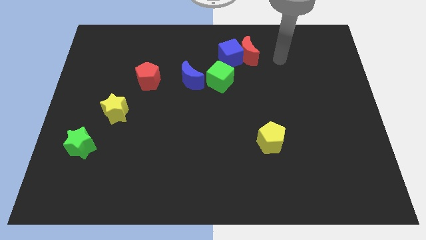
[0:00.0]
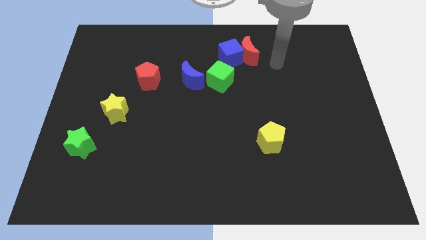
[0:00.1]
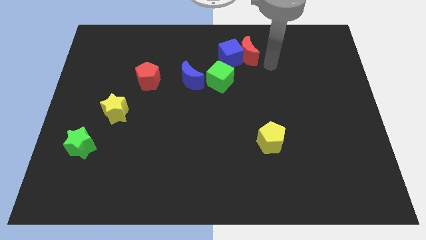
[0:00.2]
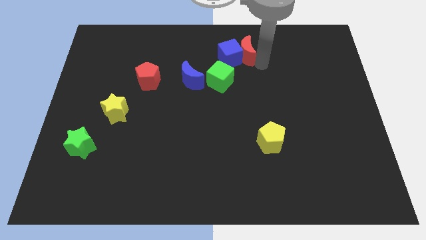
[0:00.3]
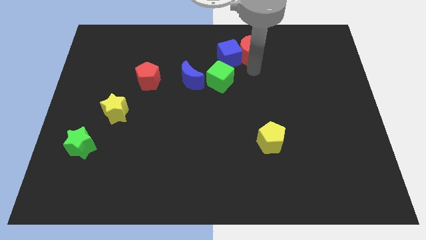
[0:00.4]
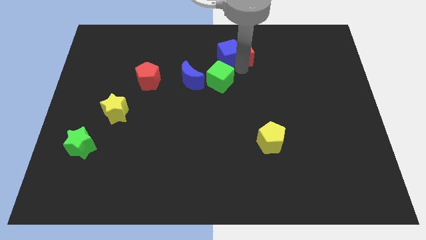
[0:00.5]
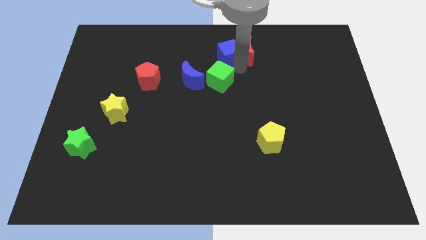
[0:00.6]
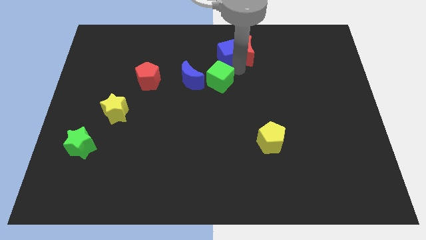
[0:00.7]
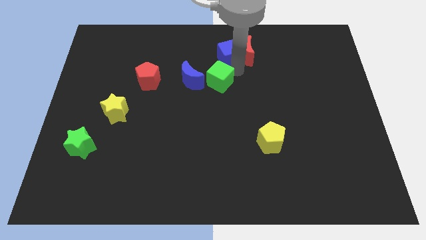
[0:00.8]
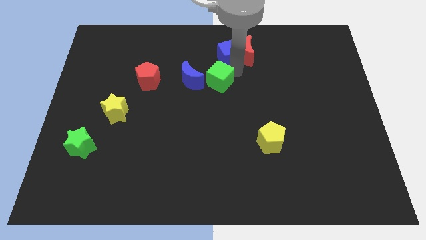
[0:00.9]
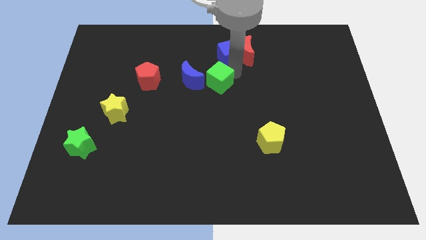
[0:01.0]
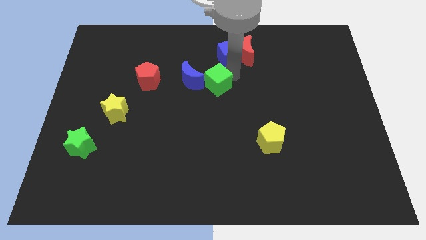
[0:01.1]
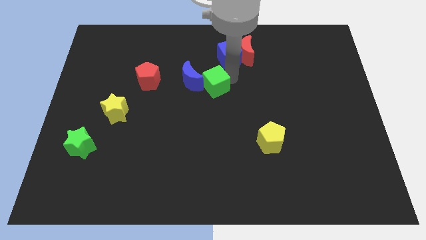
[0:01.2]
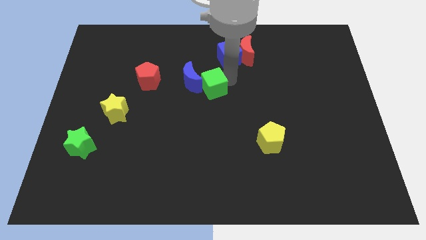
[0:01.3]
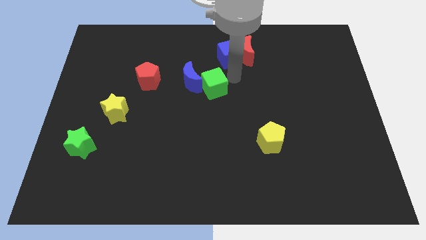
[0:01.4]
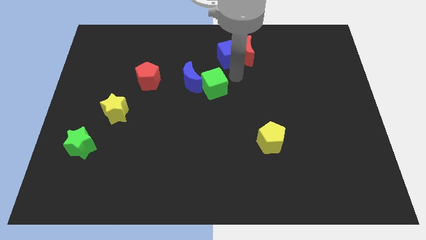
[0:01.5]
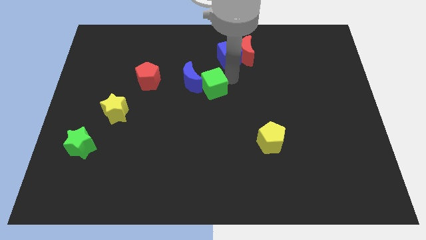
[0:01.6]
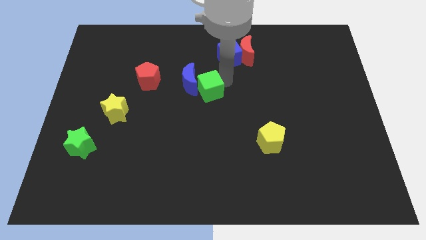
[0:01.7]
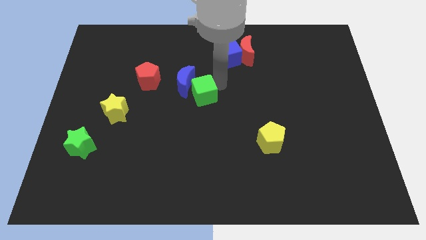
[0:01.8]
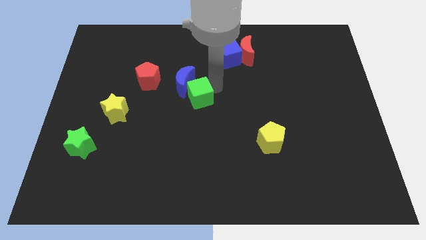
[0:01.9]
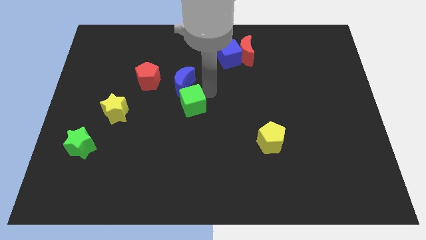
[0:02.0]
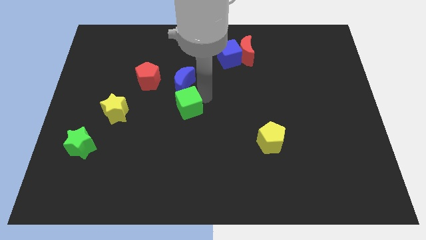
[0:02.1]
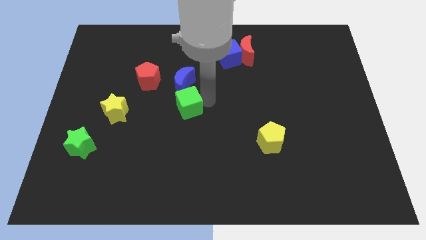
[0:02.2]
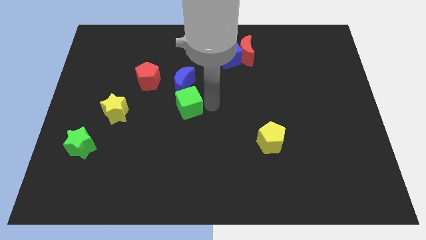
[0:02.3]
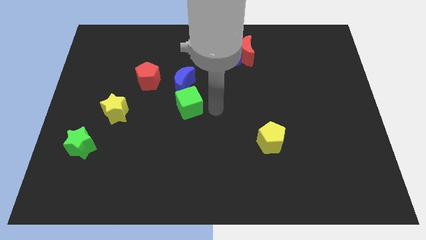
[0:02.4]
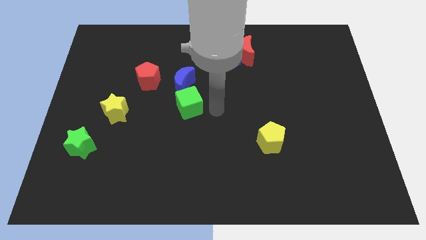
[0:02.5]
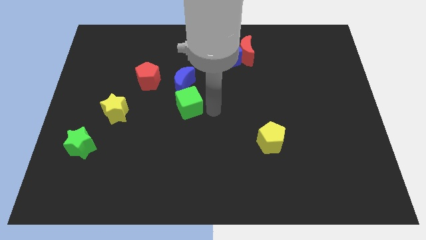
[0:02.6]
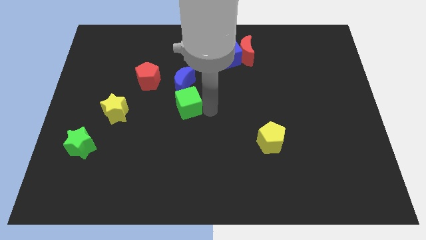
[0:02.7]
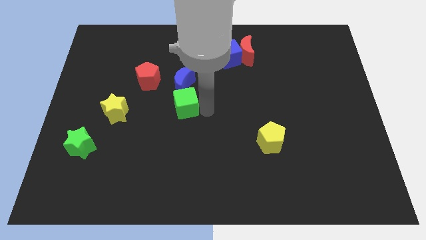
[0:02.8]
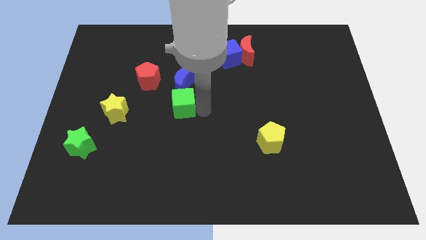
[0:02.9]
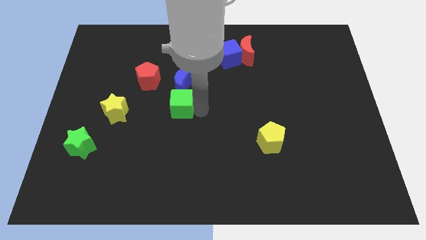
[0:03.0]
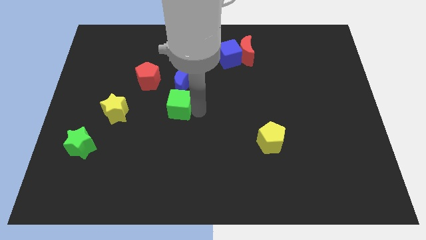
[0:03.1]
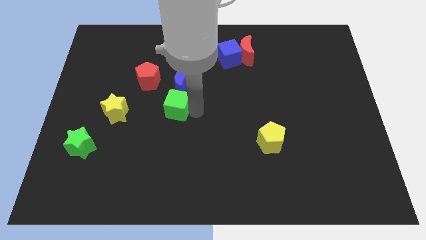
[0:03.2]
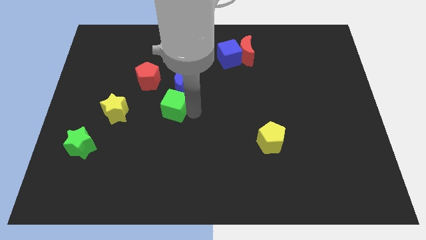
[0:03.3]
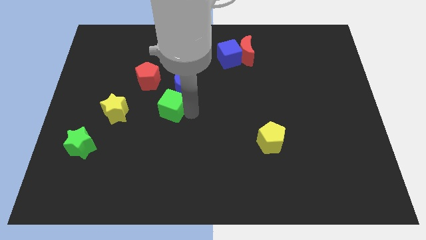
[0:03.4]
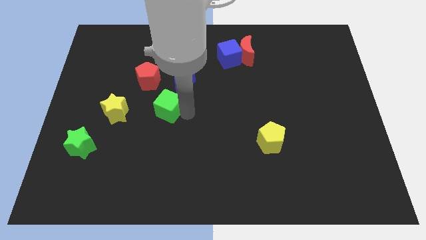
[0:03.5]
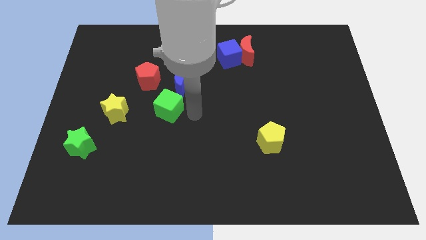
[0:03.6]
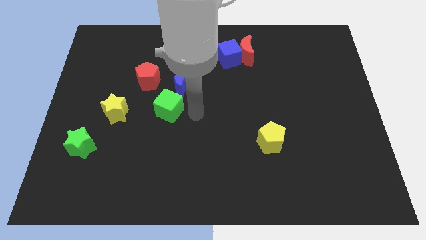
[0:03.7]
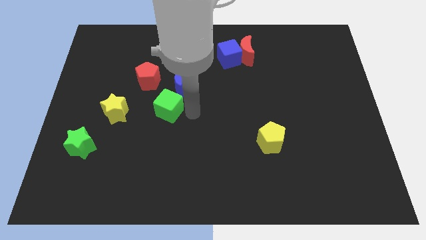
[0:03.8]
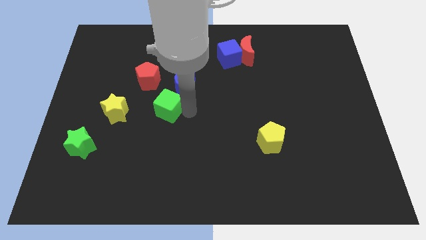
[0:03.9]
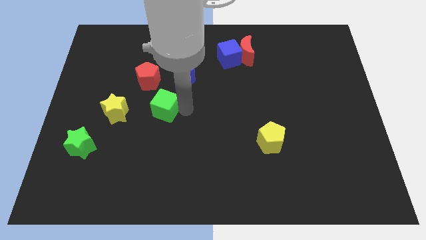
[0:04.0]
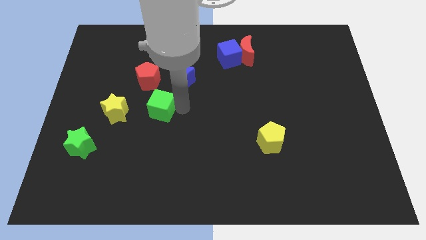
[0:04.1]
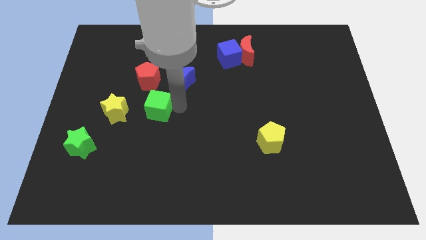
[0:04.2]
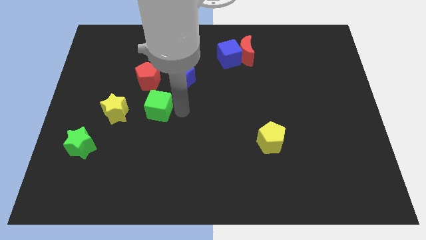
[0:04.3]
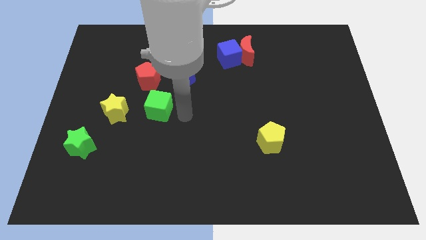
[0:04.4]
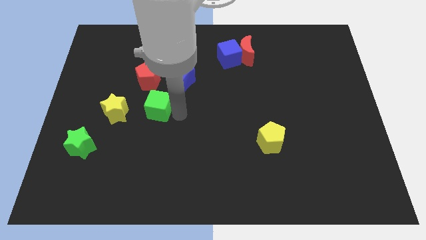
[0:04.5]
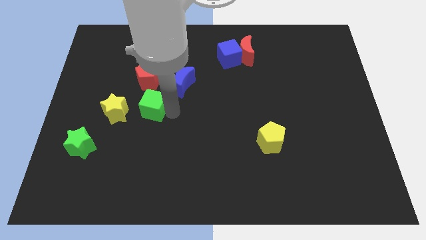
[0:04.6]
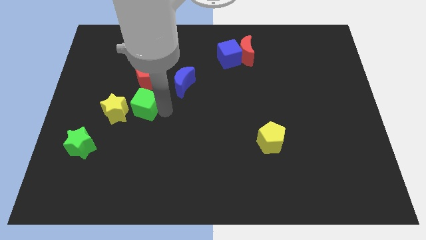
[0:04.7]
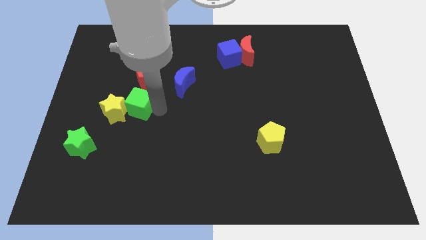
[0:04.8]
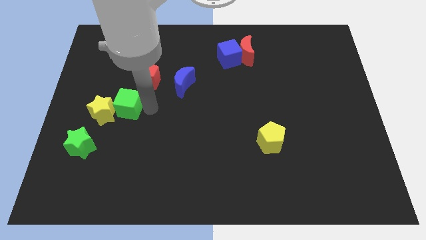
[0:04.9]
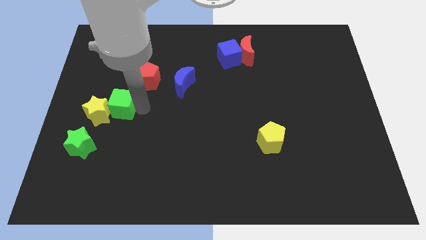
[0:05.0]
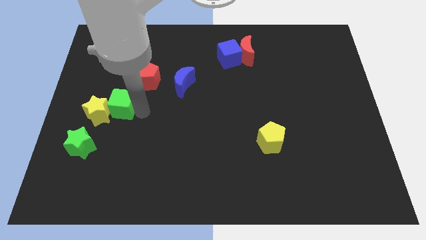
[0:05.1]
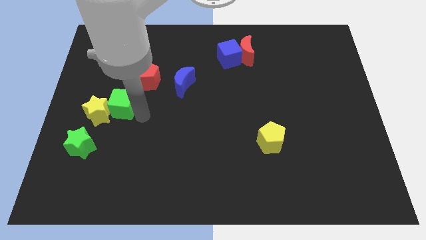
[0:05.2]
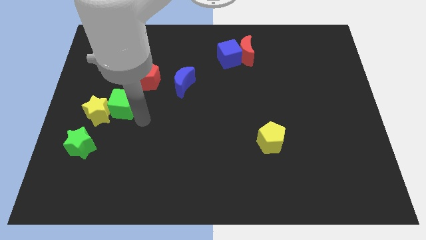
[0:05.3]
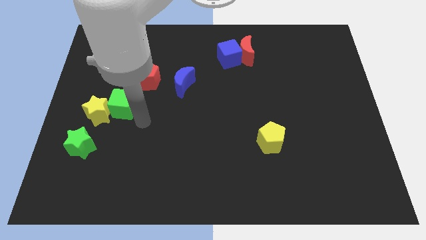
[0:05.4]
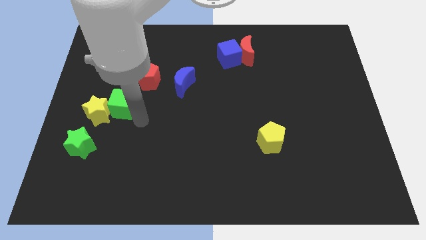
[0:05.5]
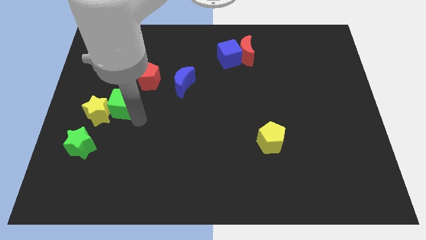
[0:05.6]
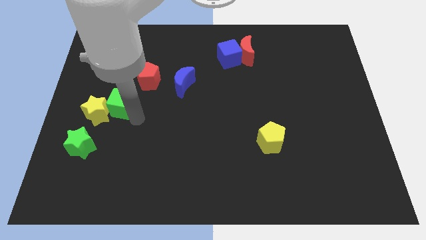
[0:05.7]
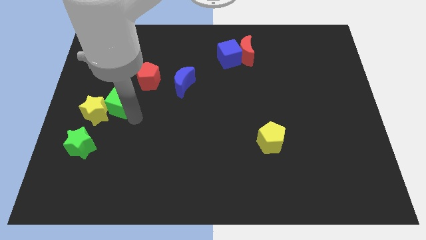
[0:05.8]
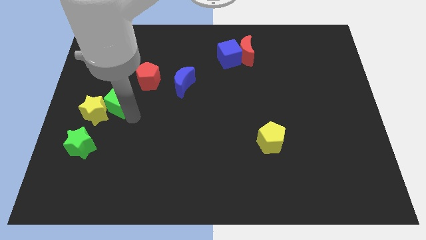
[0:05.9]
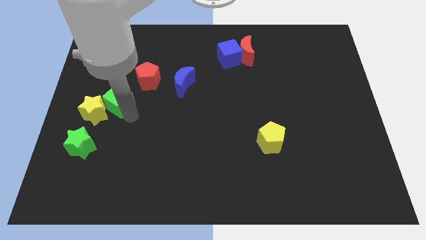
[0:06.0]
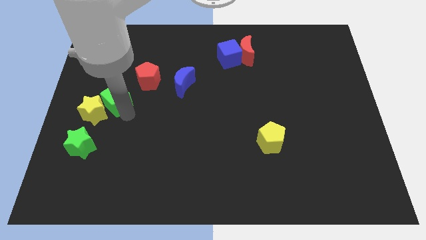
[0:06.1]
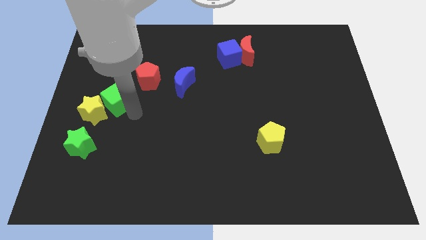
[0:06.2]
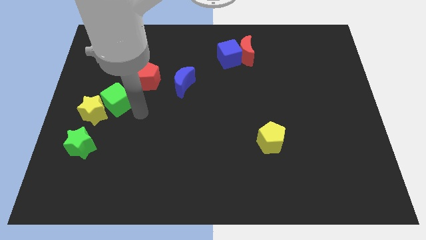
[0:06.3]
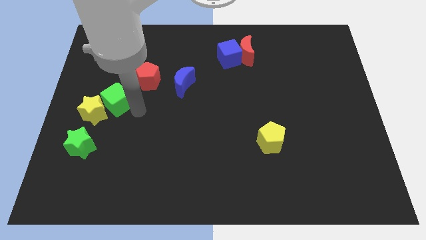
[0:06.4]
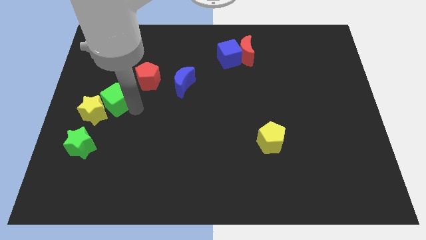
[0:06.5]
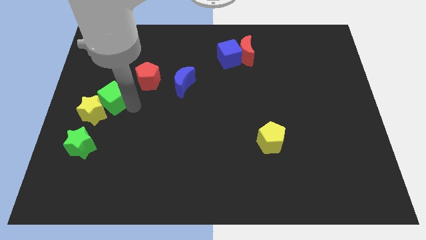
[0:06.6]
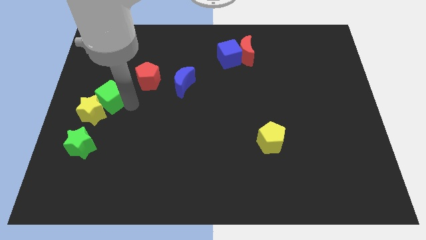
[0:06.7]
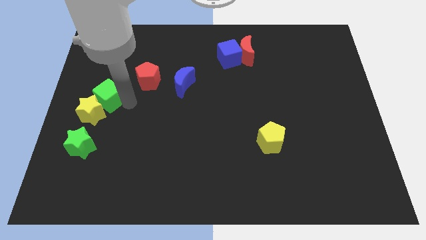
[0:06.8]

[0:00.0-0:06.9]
move the green cube to the center left
